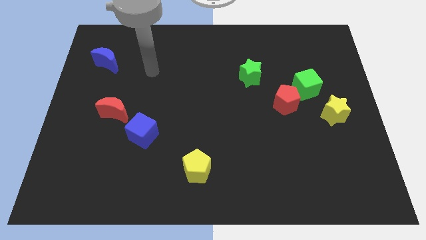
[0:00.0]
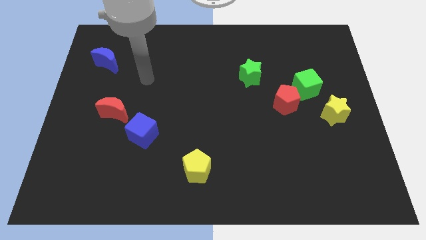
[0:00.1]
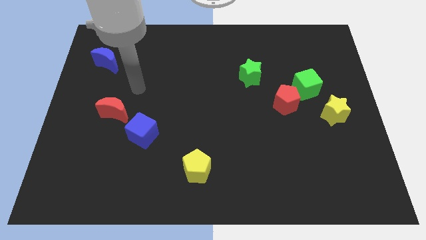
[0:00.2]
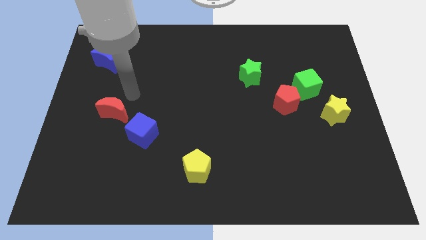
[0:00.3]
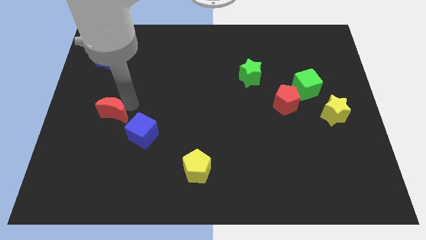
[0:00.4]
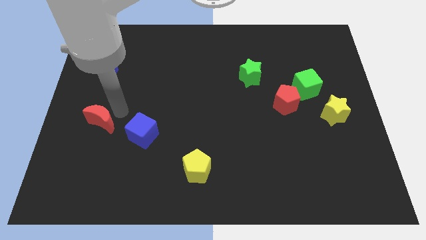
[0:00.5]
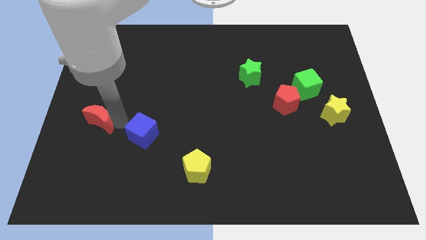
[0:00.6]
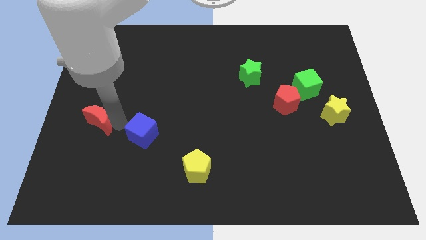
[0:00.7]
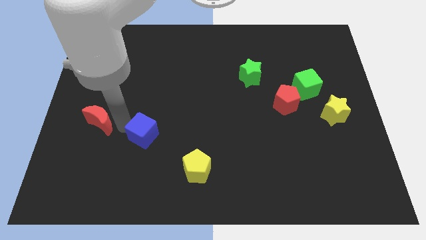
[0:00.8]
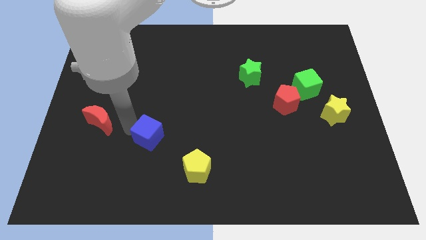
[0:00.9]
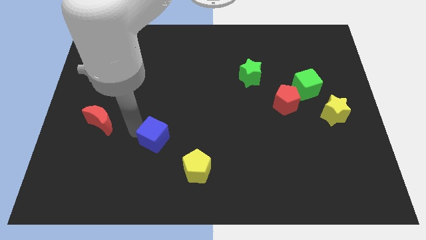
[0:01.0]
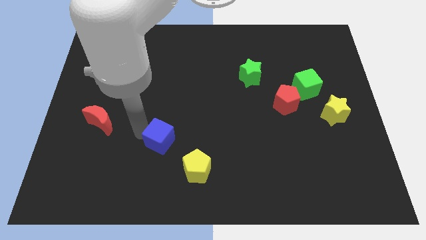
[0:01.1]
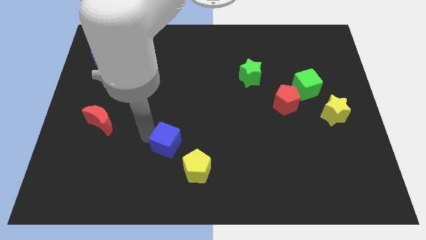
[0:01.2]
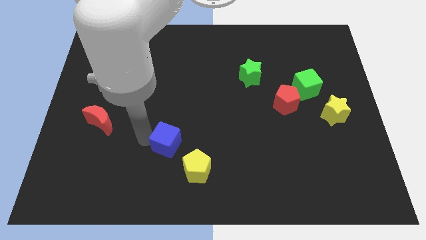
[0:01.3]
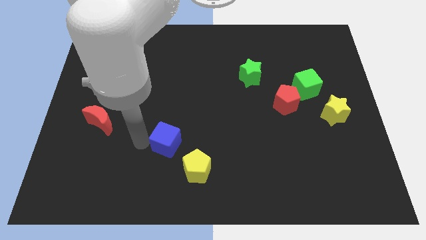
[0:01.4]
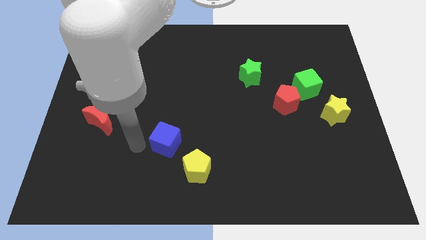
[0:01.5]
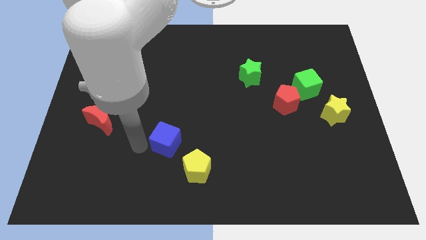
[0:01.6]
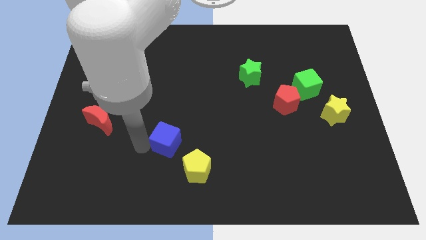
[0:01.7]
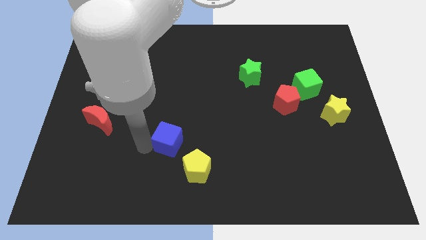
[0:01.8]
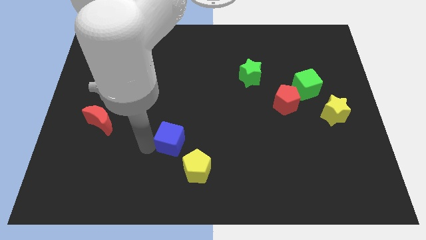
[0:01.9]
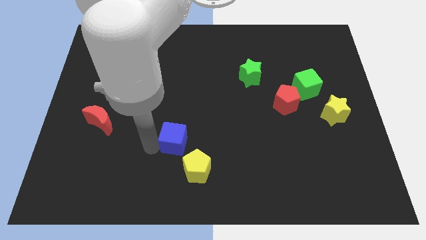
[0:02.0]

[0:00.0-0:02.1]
slightly move the blue cube to the right

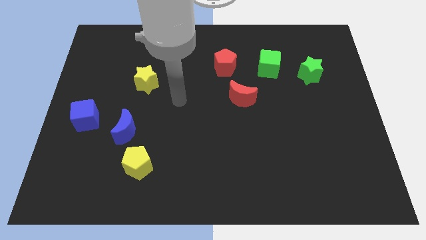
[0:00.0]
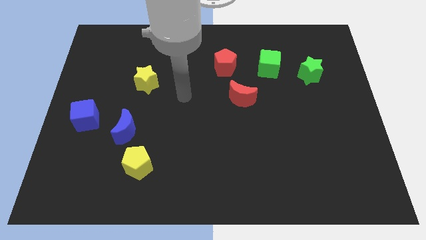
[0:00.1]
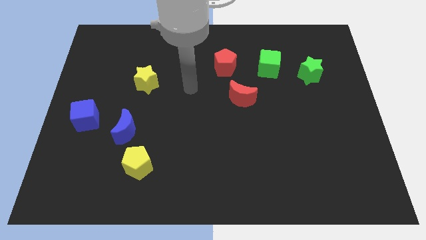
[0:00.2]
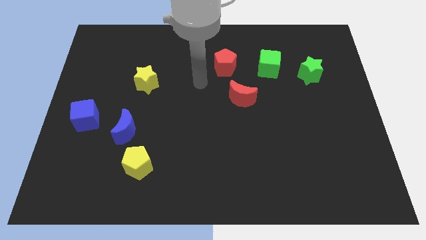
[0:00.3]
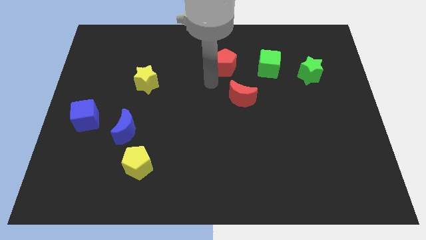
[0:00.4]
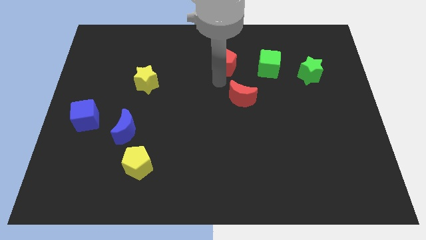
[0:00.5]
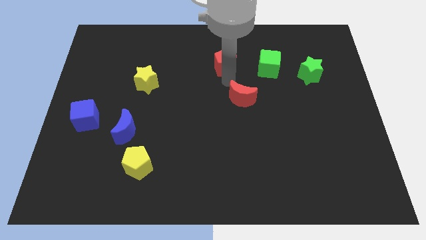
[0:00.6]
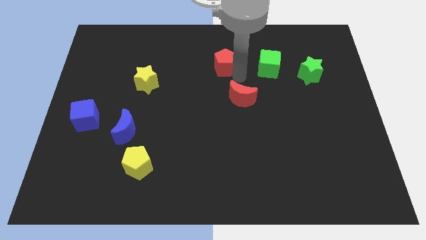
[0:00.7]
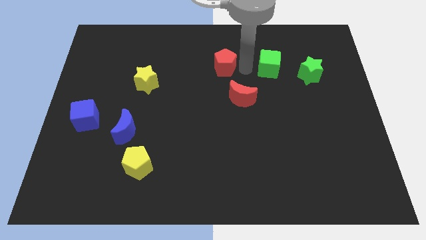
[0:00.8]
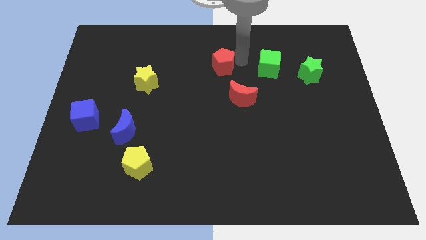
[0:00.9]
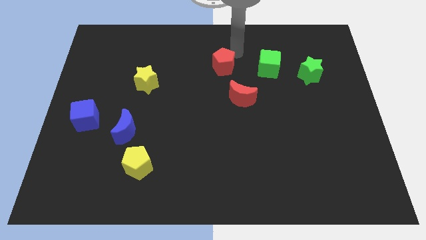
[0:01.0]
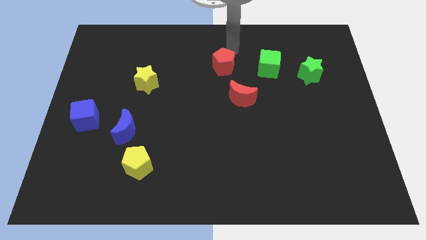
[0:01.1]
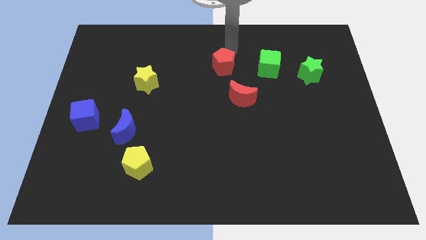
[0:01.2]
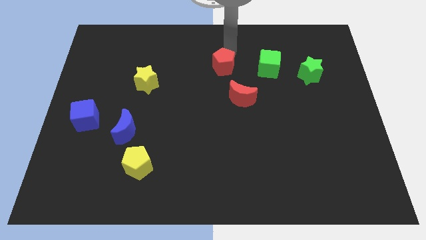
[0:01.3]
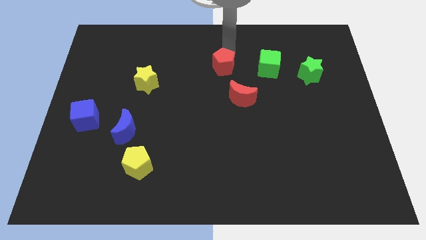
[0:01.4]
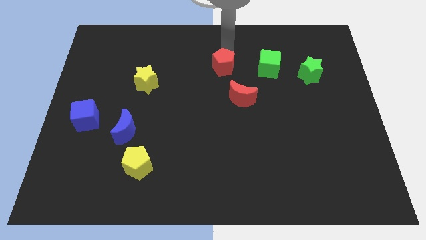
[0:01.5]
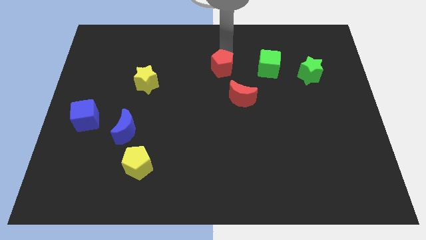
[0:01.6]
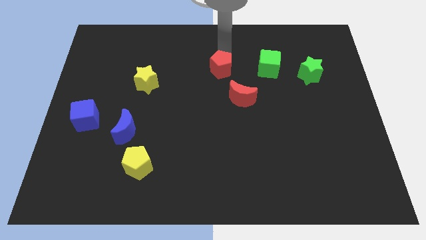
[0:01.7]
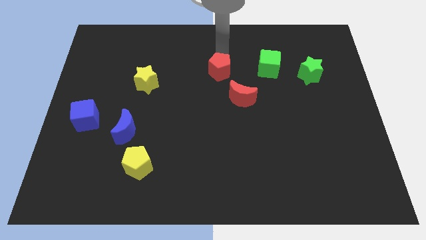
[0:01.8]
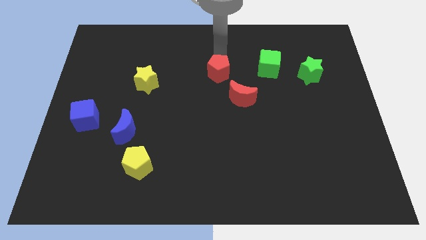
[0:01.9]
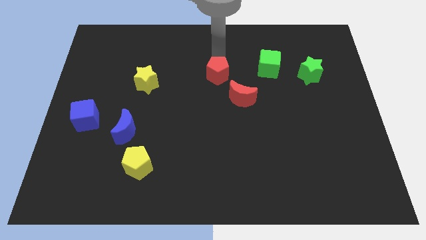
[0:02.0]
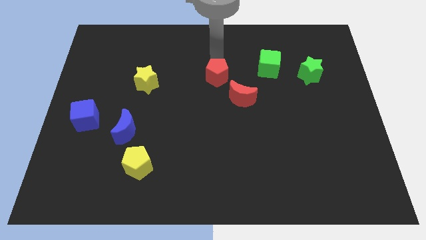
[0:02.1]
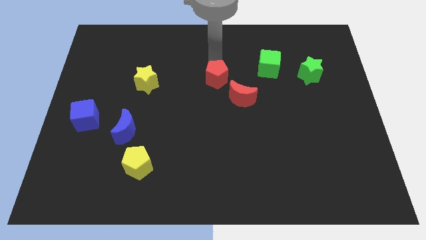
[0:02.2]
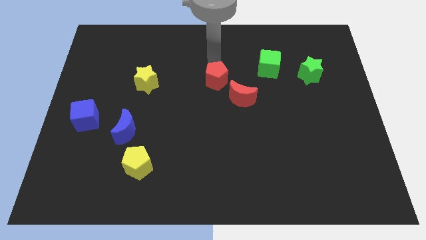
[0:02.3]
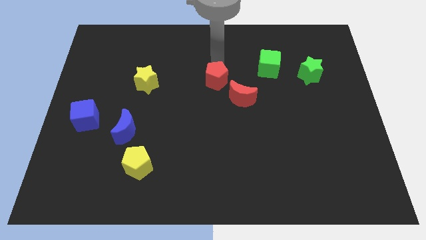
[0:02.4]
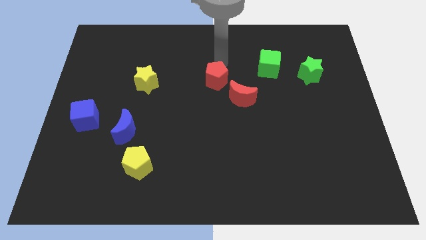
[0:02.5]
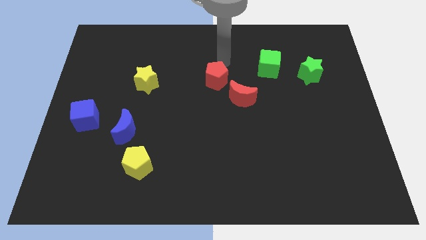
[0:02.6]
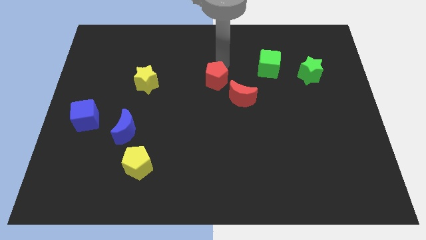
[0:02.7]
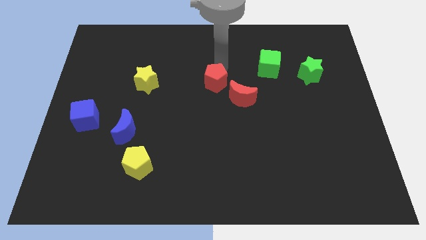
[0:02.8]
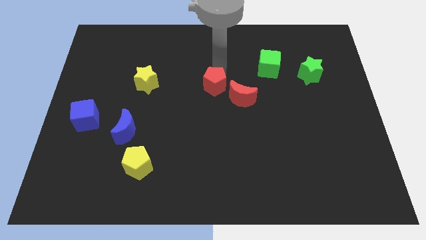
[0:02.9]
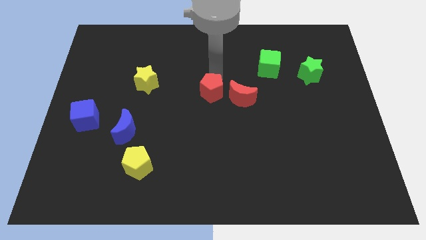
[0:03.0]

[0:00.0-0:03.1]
push the red pentagon down a little bit

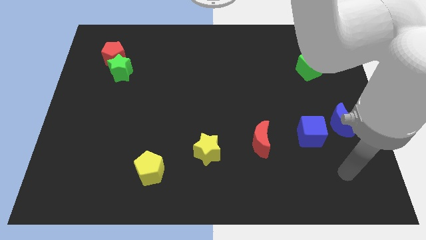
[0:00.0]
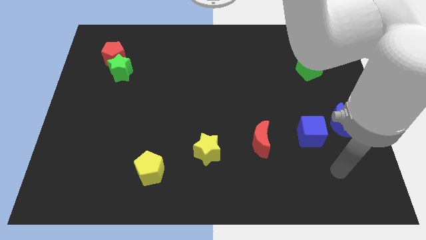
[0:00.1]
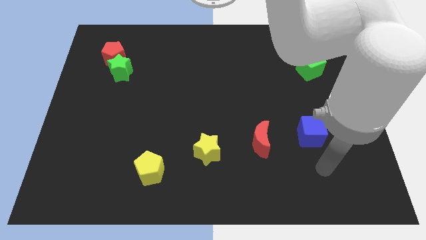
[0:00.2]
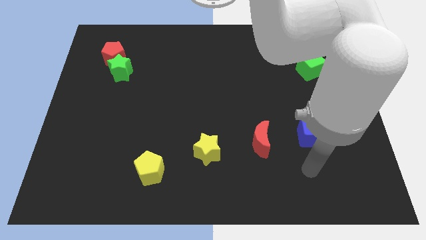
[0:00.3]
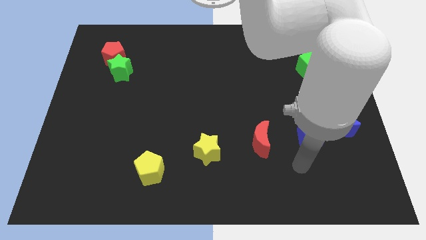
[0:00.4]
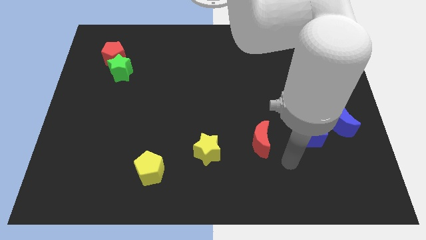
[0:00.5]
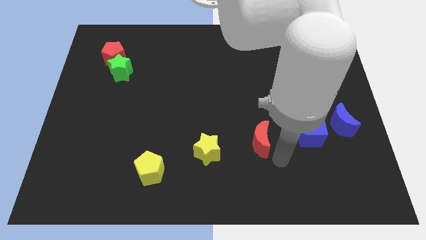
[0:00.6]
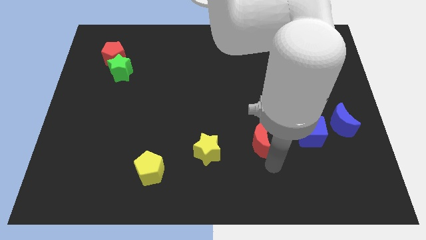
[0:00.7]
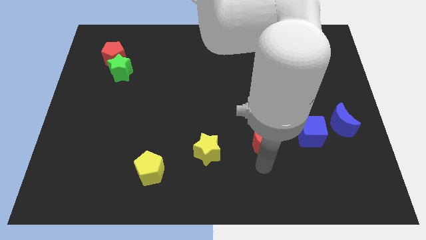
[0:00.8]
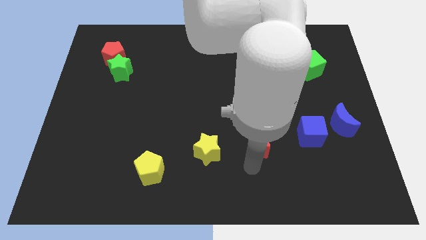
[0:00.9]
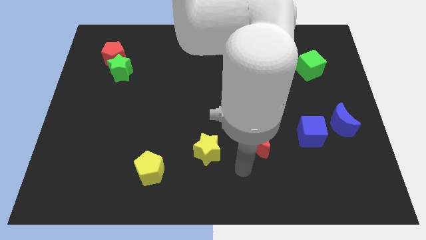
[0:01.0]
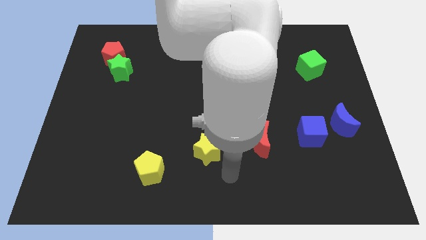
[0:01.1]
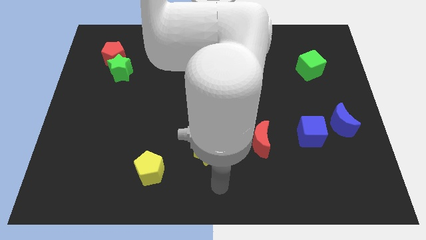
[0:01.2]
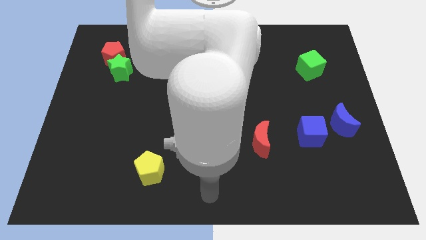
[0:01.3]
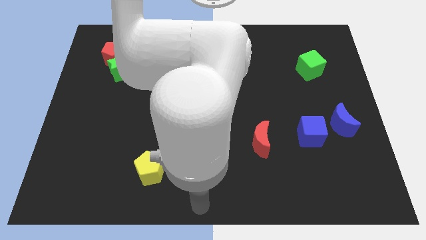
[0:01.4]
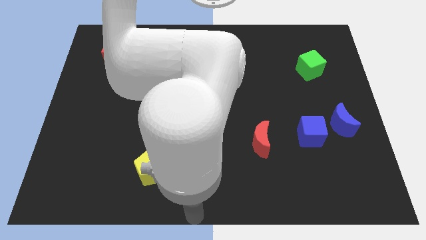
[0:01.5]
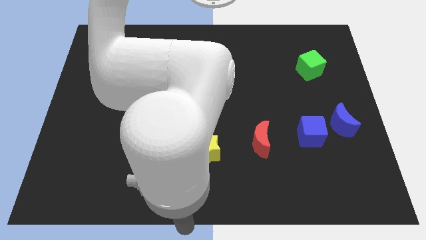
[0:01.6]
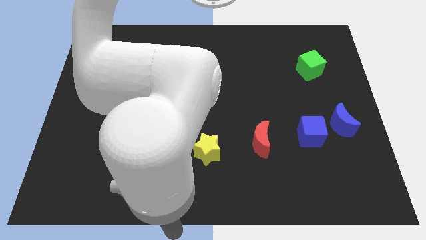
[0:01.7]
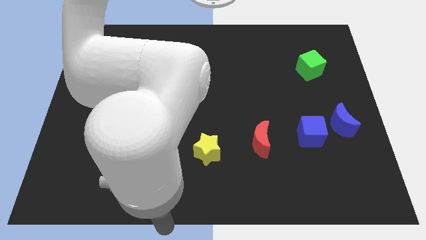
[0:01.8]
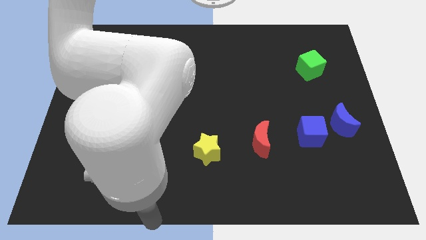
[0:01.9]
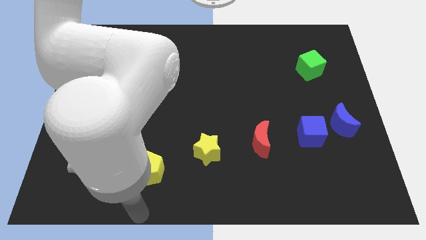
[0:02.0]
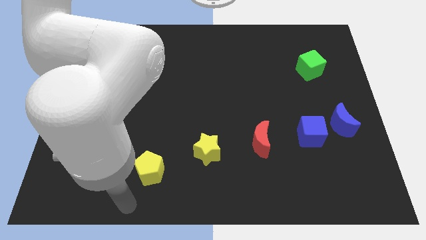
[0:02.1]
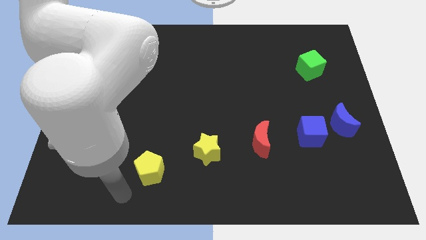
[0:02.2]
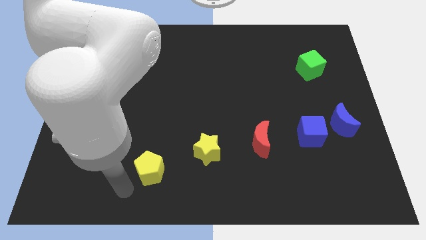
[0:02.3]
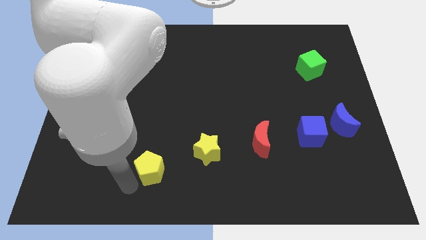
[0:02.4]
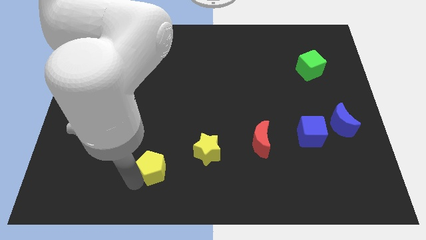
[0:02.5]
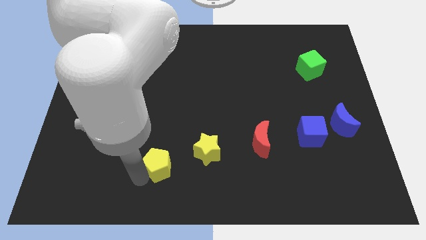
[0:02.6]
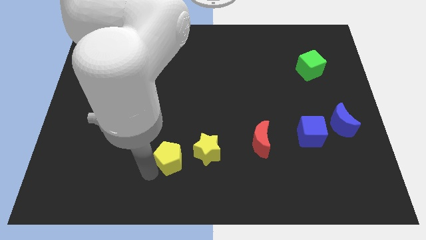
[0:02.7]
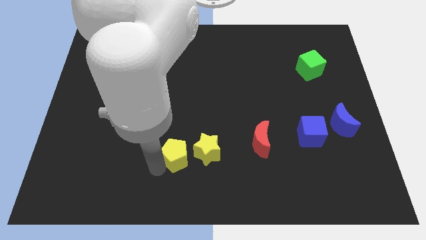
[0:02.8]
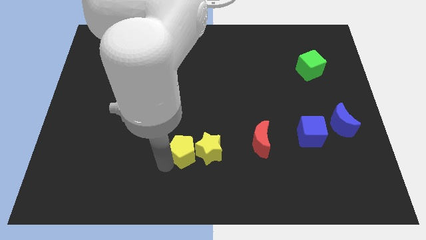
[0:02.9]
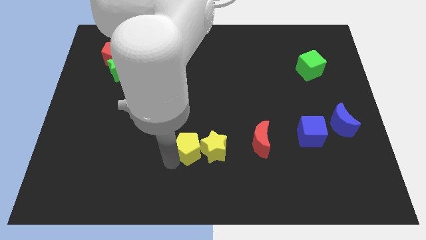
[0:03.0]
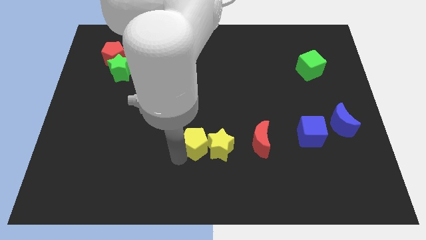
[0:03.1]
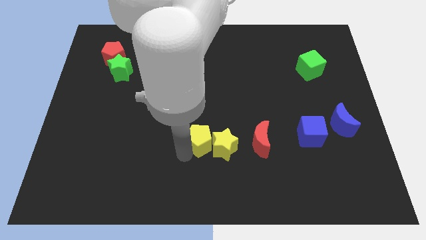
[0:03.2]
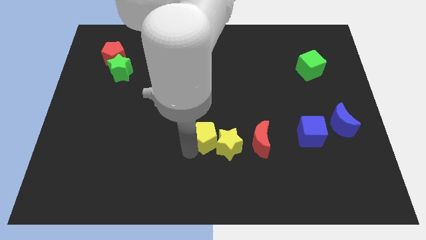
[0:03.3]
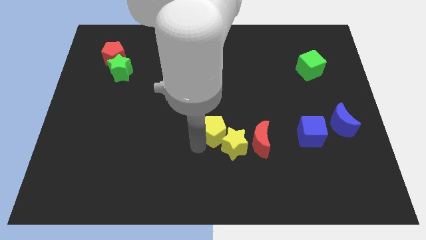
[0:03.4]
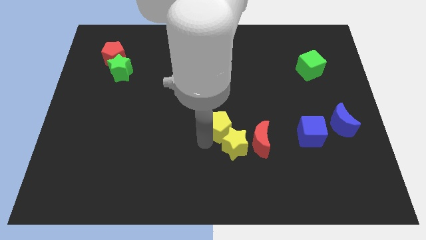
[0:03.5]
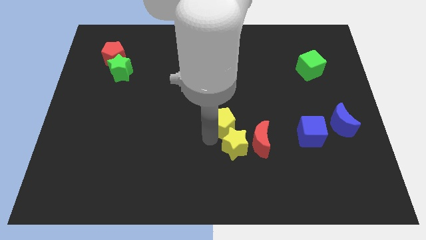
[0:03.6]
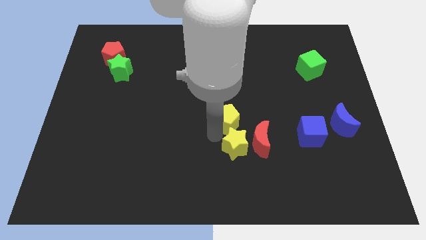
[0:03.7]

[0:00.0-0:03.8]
move the yellow pentagon up and to the right diagonally
